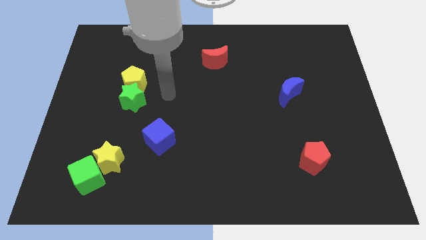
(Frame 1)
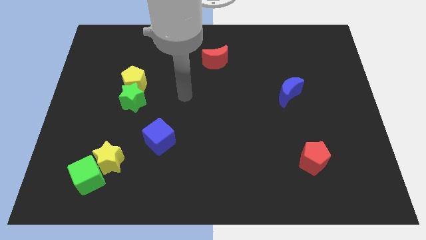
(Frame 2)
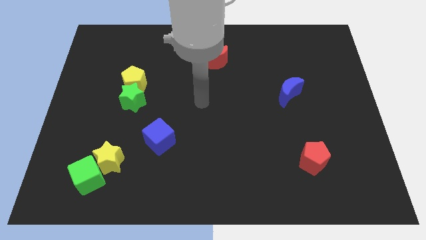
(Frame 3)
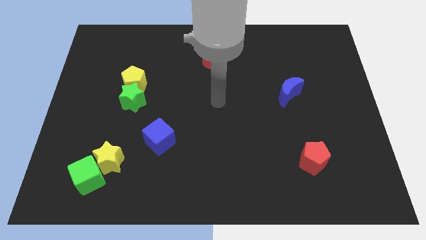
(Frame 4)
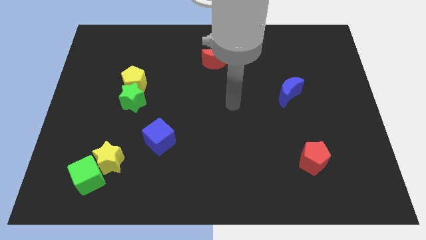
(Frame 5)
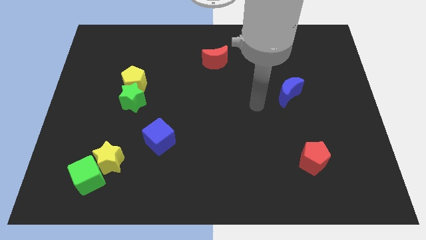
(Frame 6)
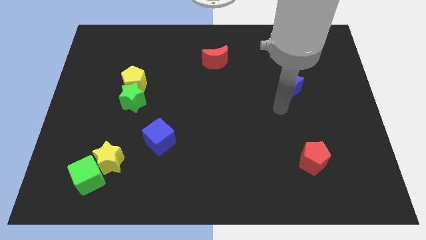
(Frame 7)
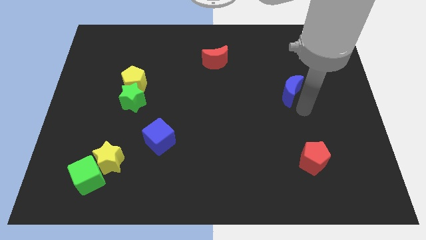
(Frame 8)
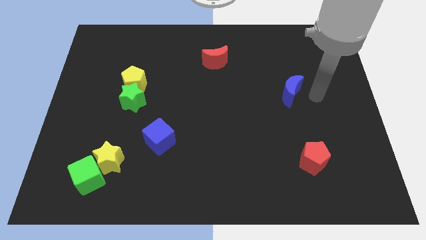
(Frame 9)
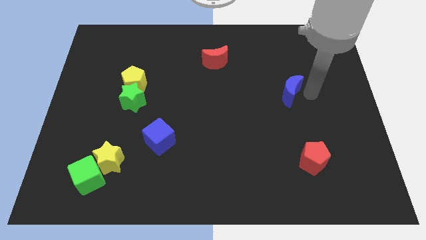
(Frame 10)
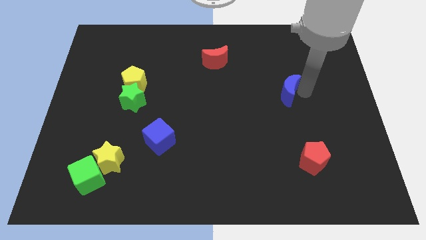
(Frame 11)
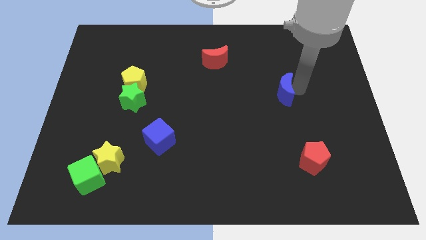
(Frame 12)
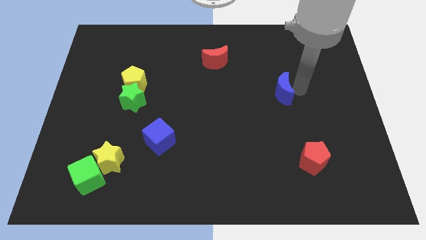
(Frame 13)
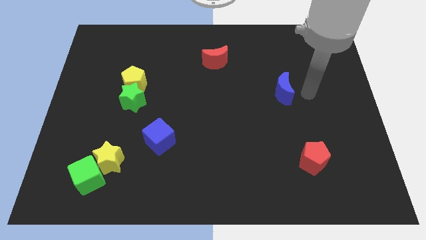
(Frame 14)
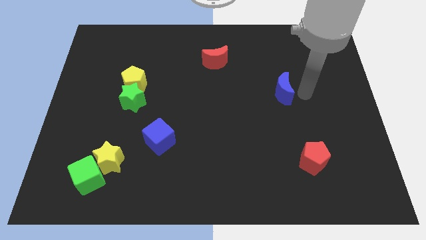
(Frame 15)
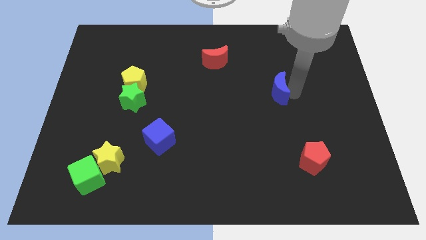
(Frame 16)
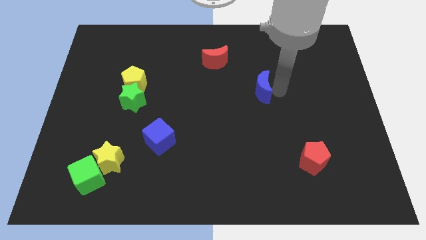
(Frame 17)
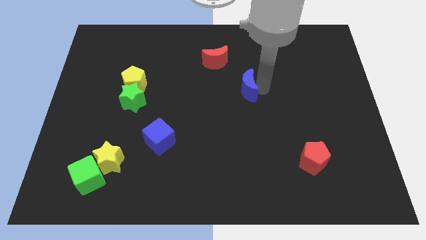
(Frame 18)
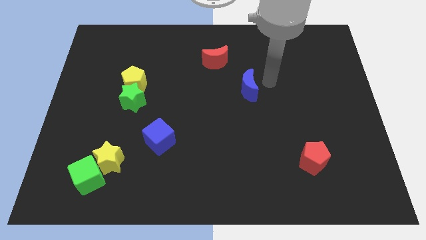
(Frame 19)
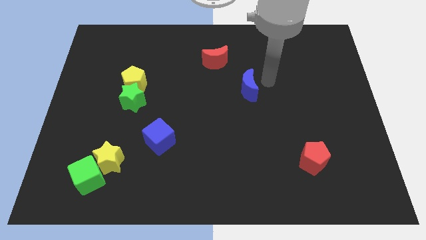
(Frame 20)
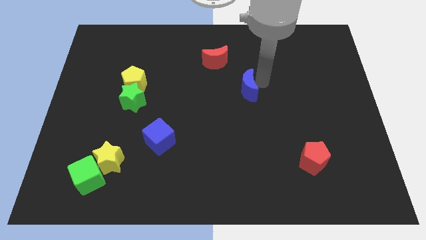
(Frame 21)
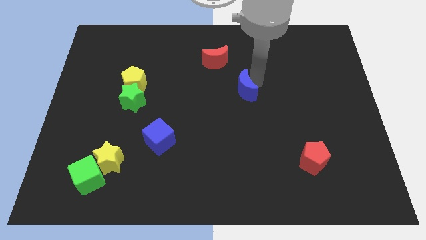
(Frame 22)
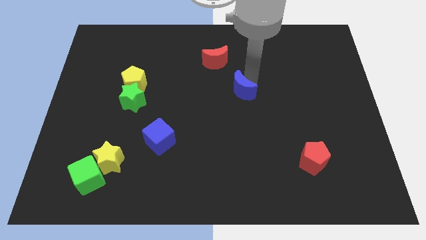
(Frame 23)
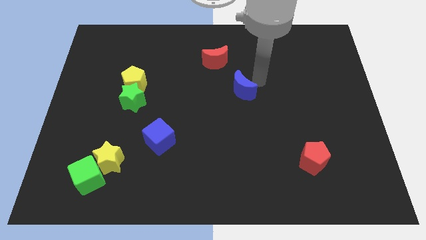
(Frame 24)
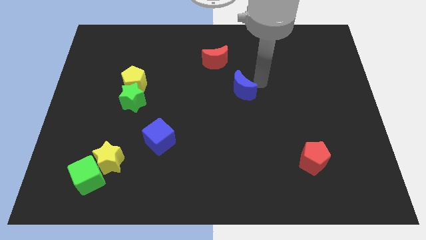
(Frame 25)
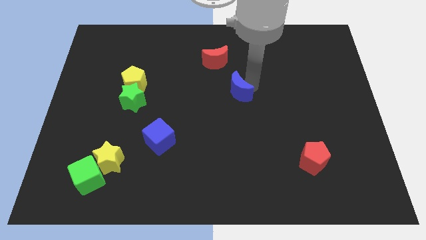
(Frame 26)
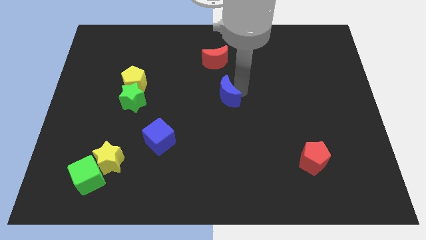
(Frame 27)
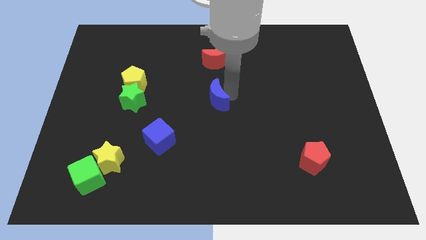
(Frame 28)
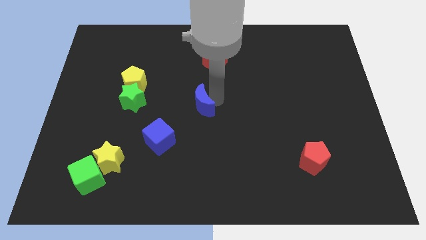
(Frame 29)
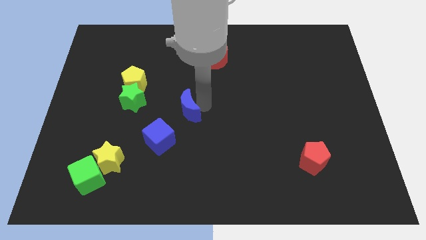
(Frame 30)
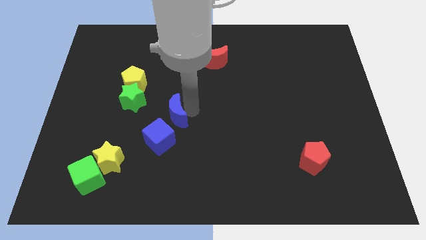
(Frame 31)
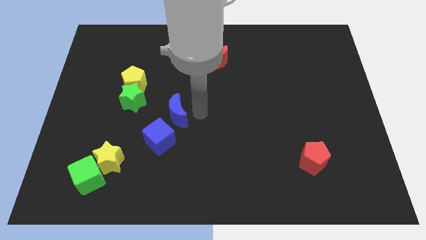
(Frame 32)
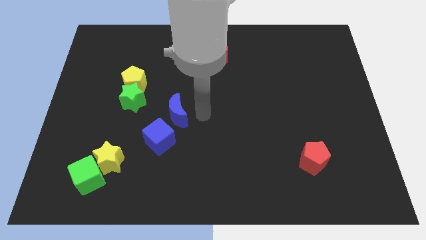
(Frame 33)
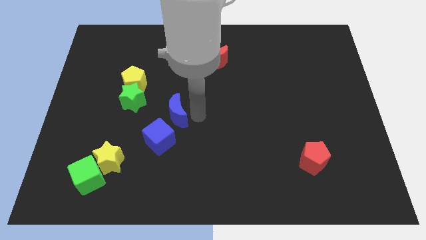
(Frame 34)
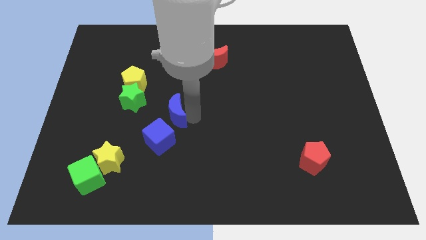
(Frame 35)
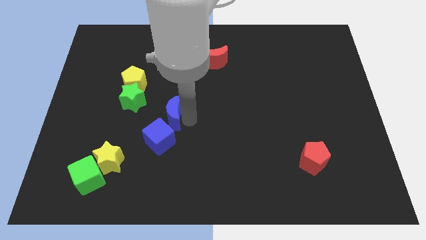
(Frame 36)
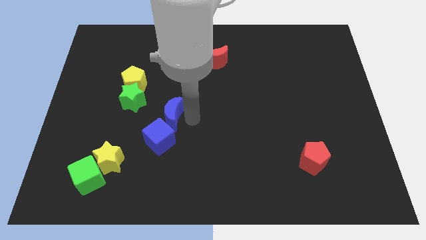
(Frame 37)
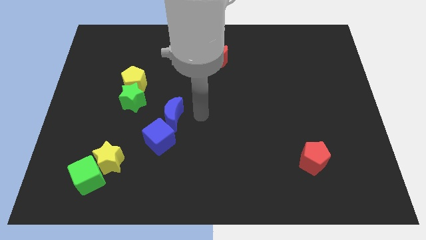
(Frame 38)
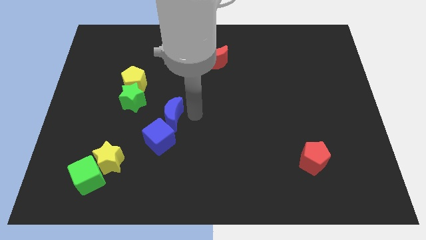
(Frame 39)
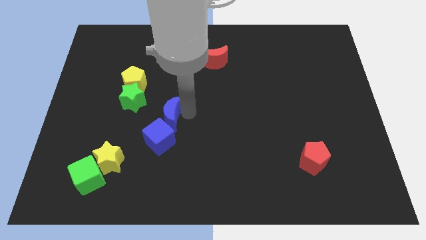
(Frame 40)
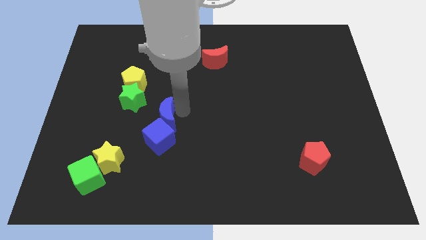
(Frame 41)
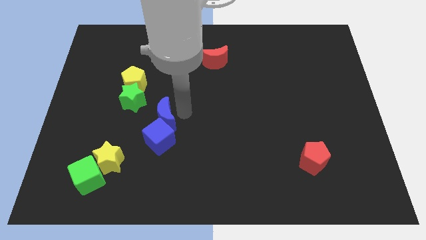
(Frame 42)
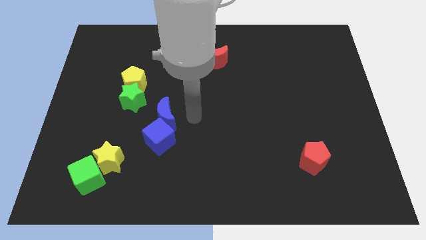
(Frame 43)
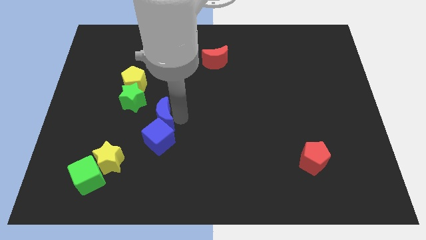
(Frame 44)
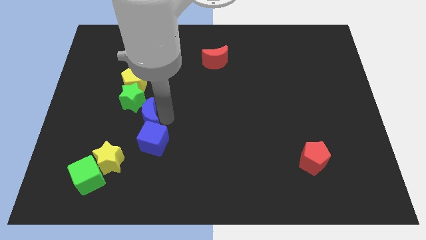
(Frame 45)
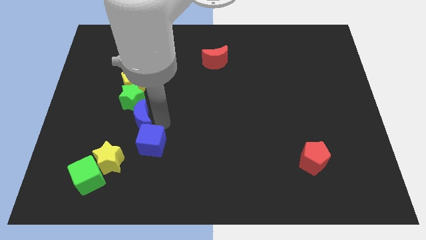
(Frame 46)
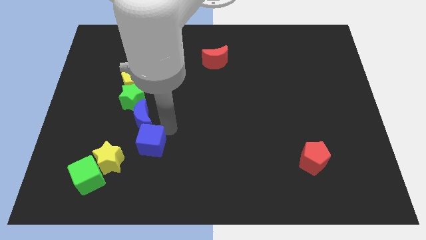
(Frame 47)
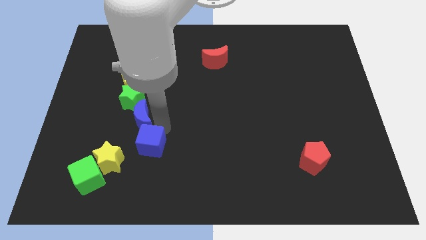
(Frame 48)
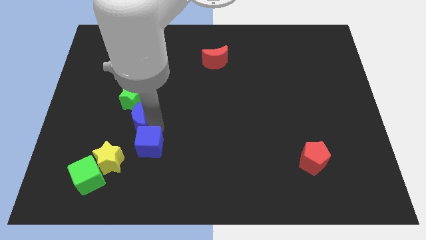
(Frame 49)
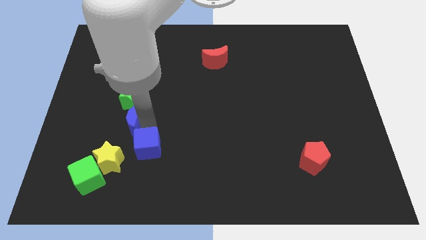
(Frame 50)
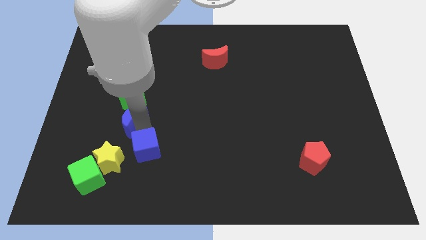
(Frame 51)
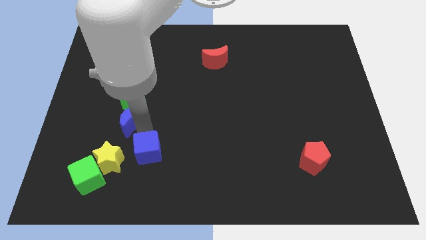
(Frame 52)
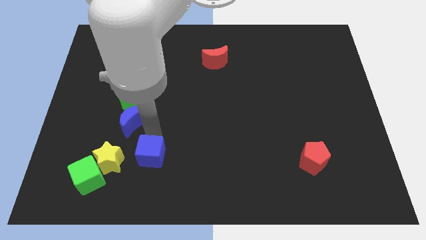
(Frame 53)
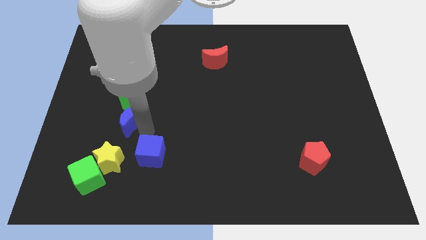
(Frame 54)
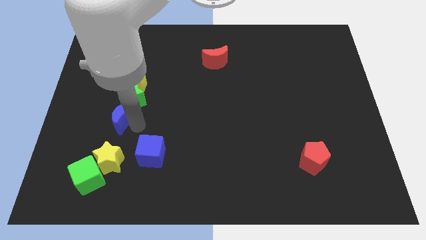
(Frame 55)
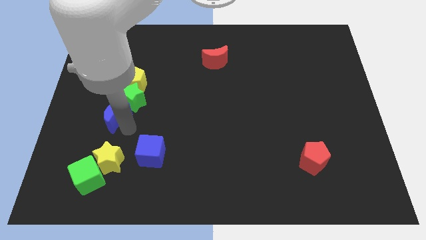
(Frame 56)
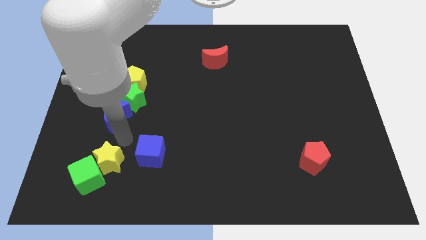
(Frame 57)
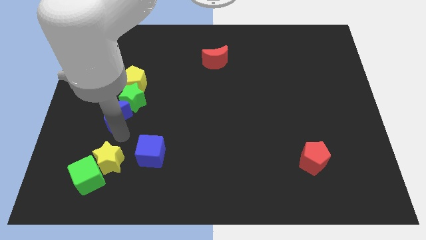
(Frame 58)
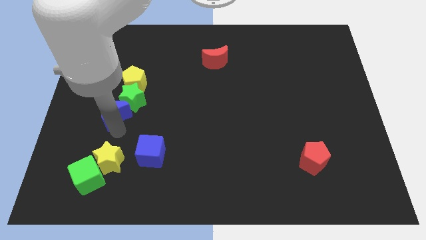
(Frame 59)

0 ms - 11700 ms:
push the blue moon to the bottom left side of the yellow pentagon
